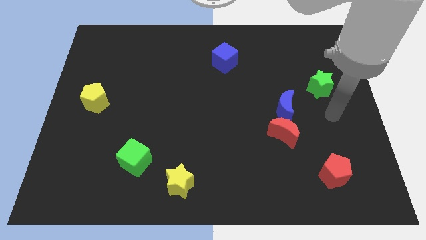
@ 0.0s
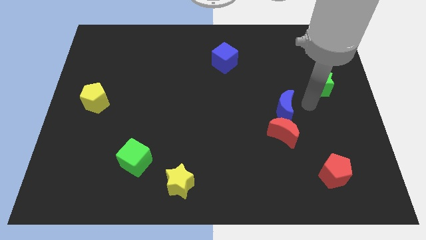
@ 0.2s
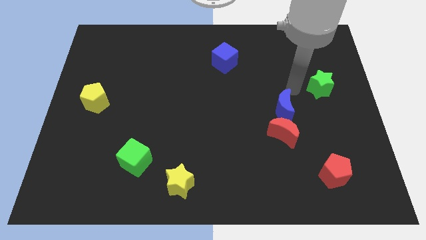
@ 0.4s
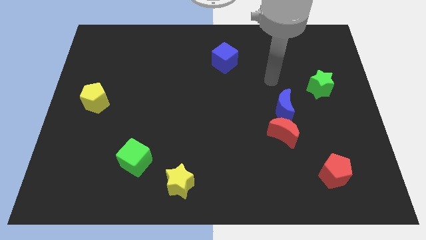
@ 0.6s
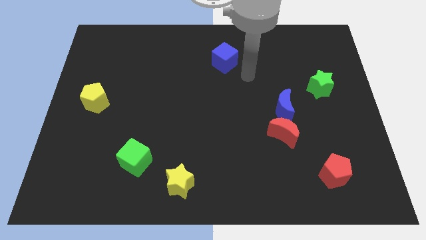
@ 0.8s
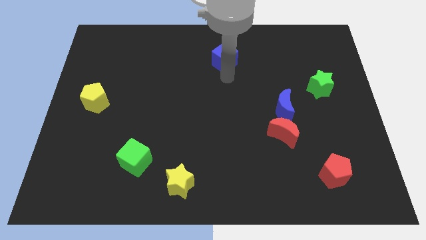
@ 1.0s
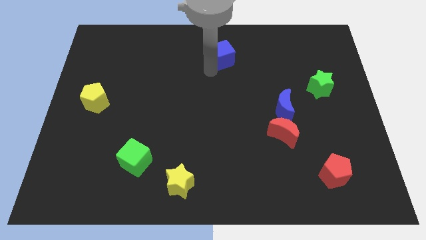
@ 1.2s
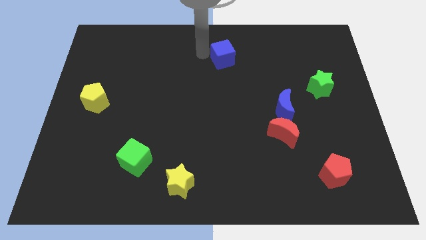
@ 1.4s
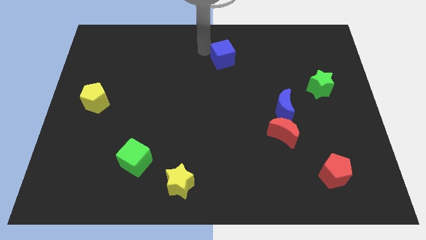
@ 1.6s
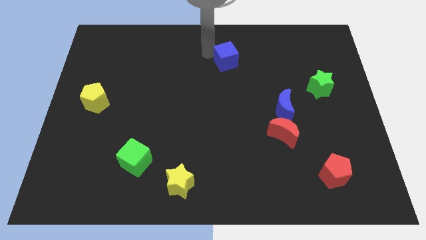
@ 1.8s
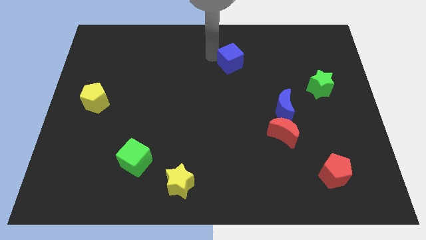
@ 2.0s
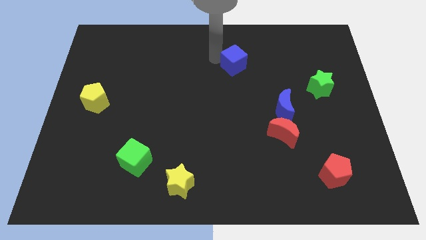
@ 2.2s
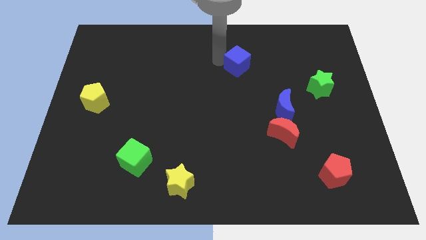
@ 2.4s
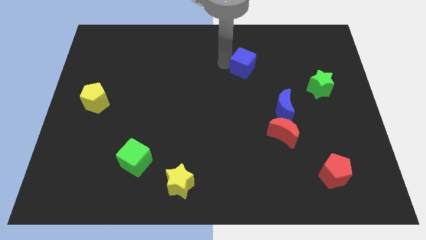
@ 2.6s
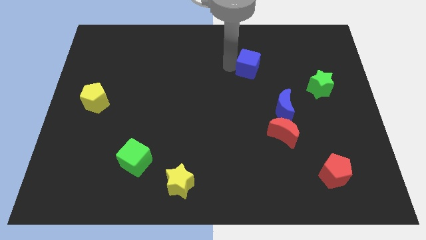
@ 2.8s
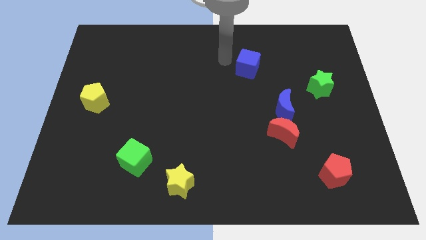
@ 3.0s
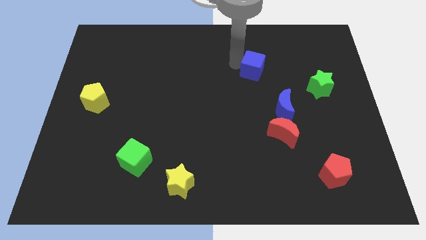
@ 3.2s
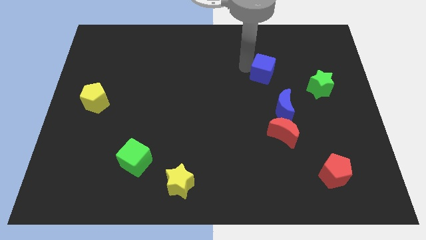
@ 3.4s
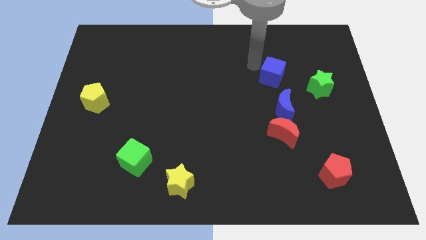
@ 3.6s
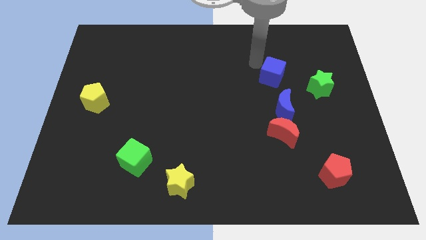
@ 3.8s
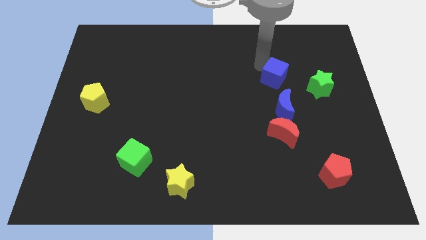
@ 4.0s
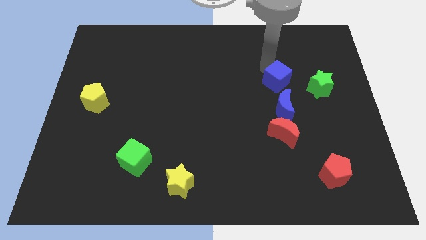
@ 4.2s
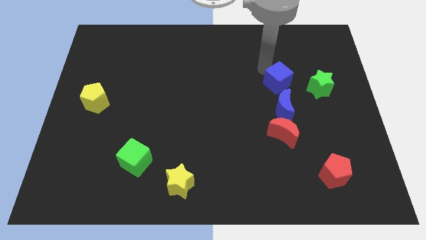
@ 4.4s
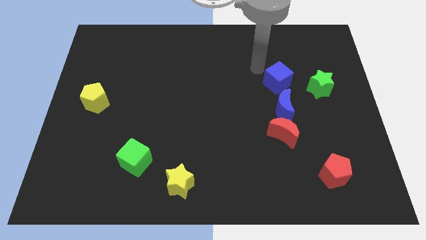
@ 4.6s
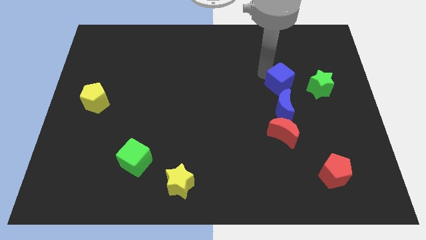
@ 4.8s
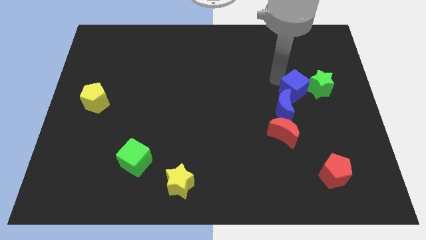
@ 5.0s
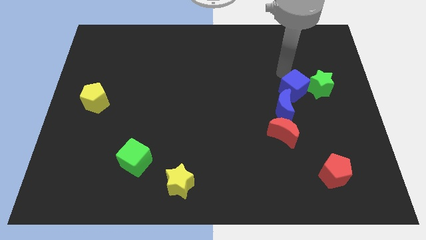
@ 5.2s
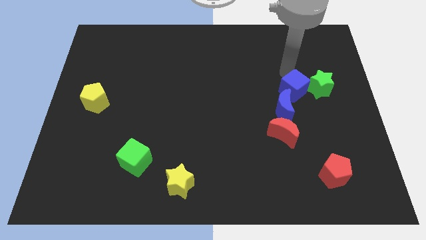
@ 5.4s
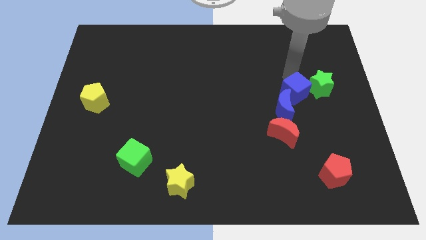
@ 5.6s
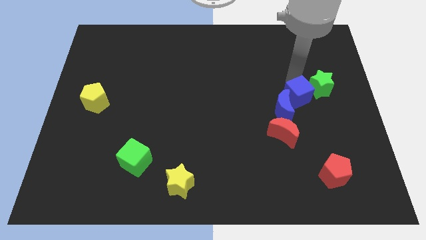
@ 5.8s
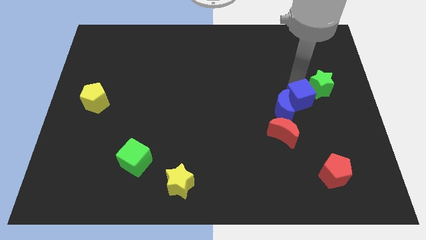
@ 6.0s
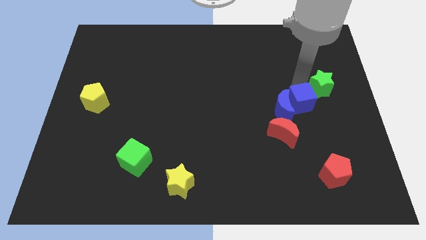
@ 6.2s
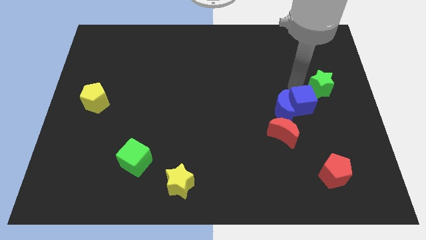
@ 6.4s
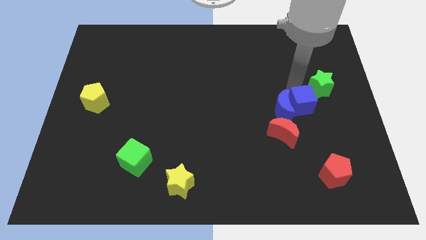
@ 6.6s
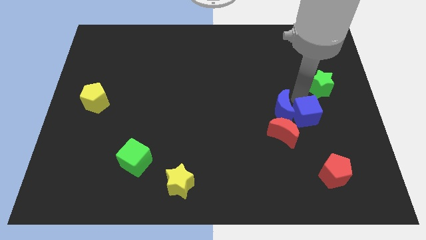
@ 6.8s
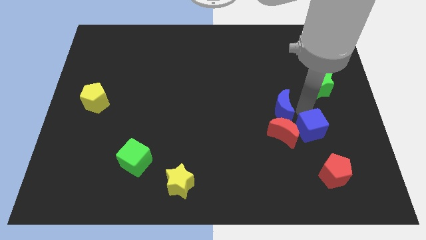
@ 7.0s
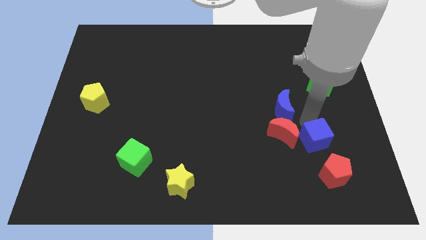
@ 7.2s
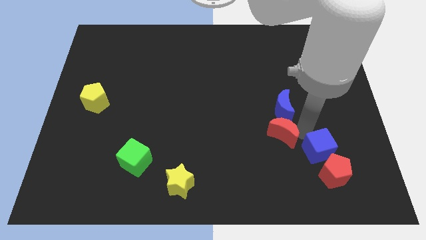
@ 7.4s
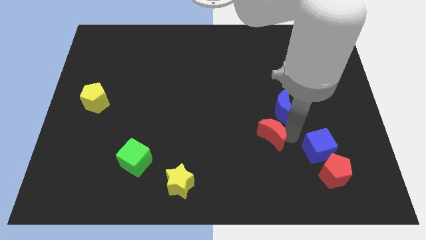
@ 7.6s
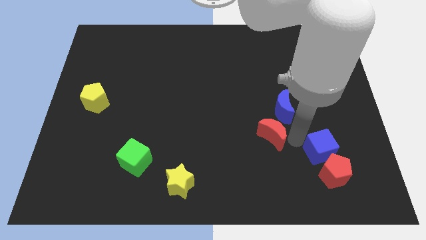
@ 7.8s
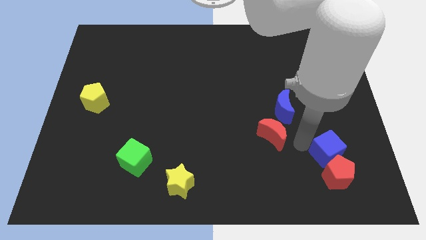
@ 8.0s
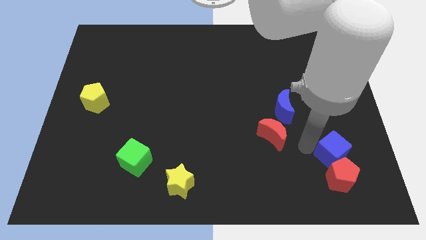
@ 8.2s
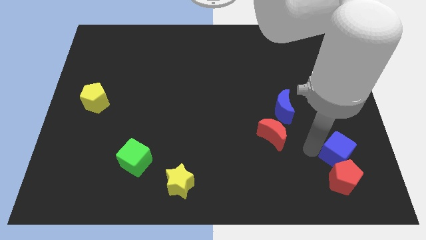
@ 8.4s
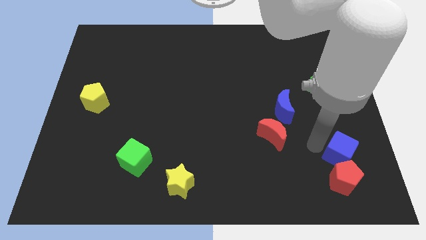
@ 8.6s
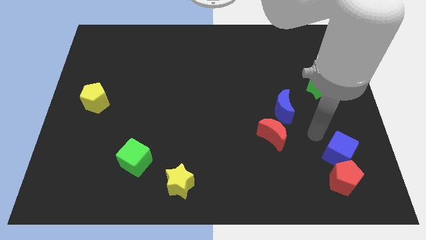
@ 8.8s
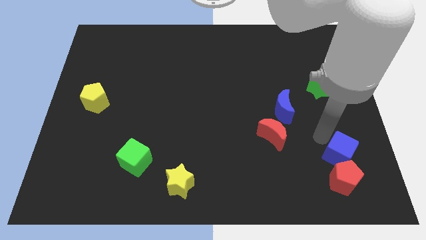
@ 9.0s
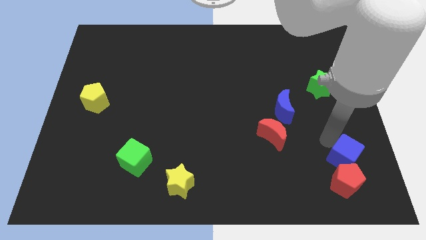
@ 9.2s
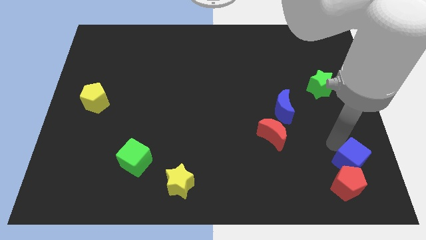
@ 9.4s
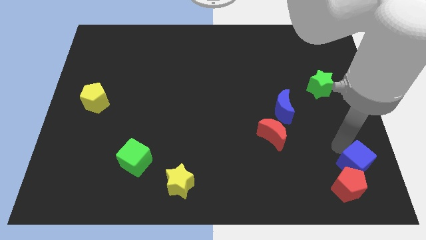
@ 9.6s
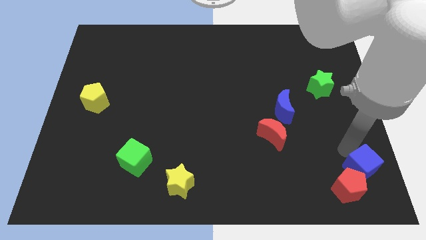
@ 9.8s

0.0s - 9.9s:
move the blue cube to the lower right corner
